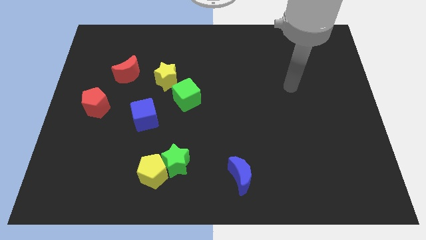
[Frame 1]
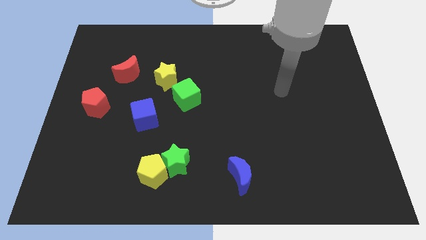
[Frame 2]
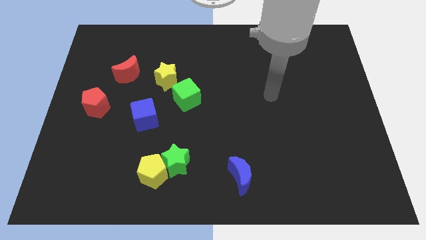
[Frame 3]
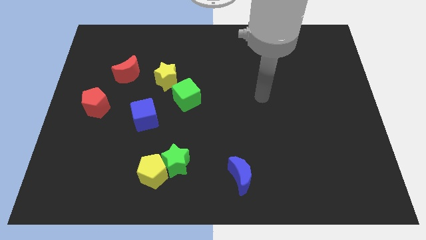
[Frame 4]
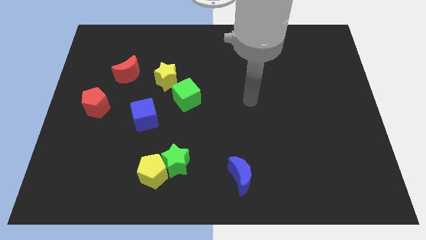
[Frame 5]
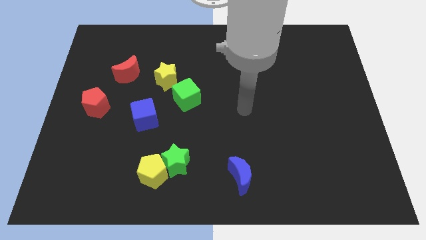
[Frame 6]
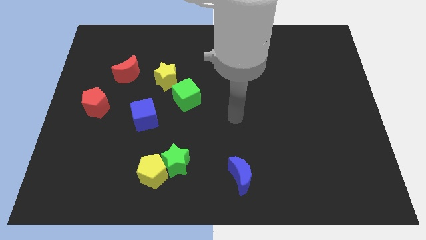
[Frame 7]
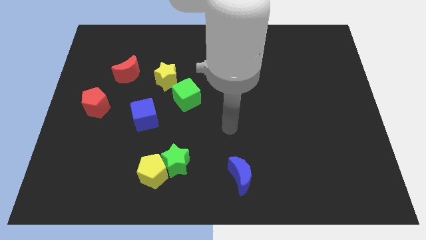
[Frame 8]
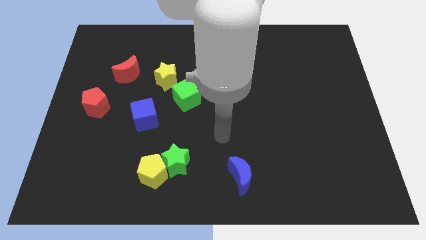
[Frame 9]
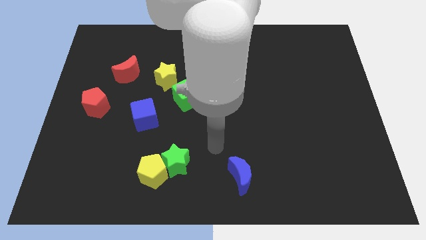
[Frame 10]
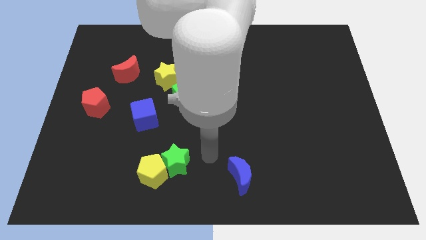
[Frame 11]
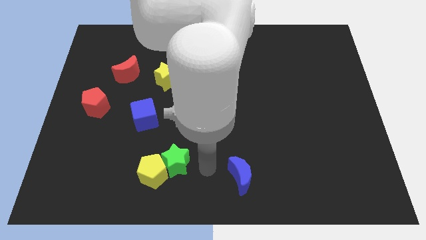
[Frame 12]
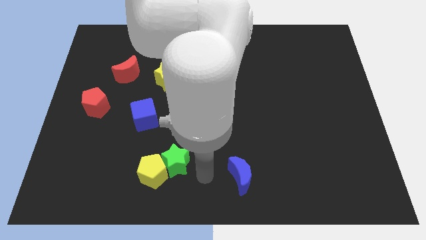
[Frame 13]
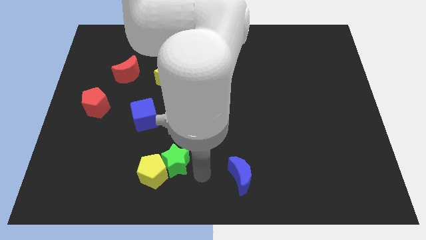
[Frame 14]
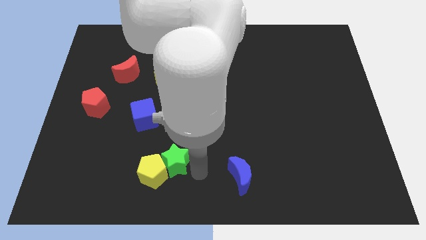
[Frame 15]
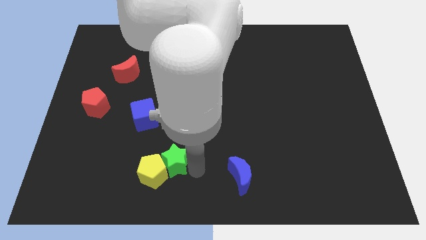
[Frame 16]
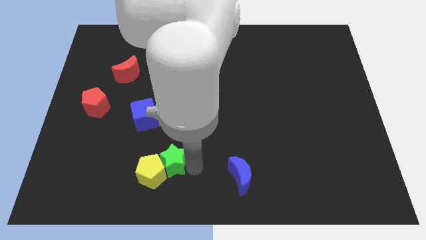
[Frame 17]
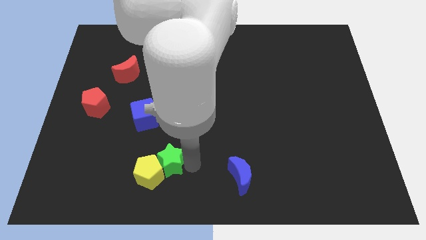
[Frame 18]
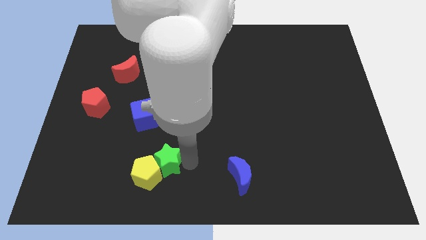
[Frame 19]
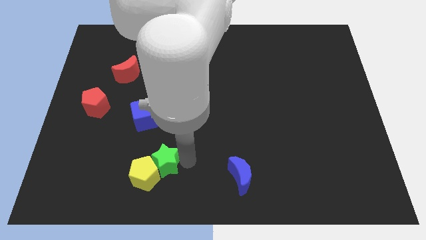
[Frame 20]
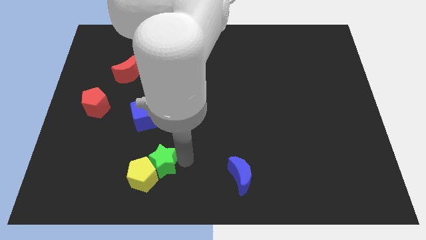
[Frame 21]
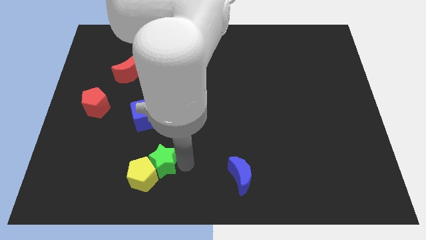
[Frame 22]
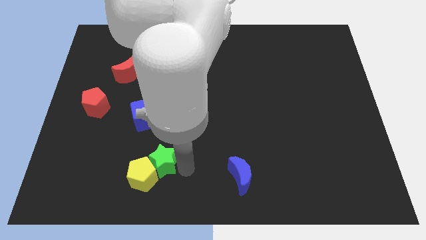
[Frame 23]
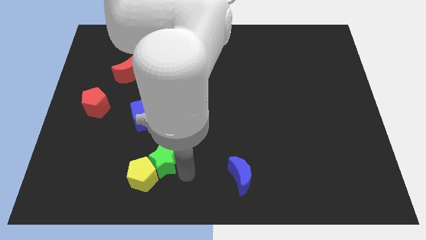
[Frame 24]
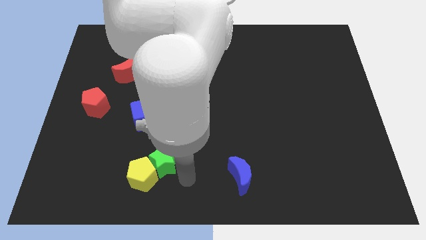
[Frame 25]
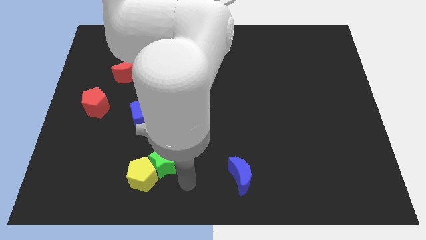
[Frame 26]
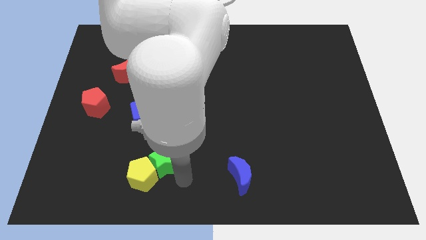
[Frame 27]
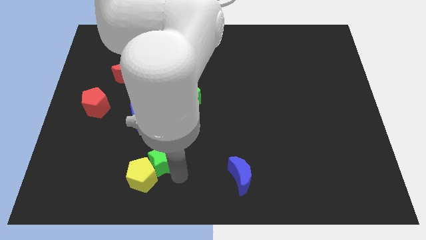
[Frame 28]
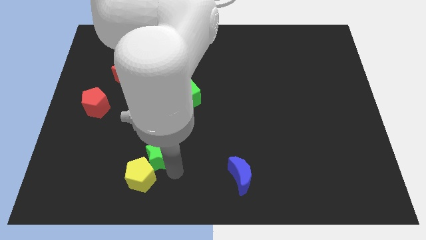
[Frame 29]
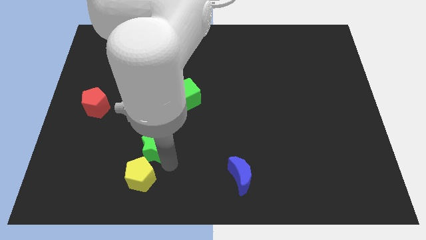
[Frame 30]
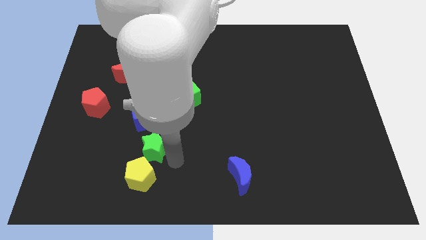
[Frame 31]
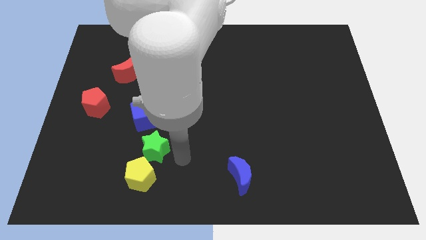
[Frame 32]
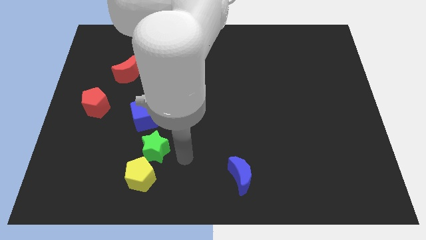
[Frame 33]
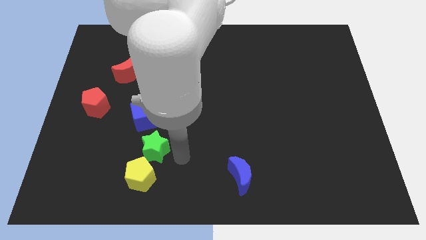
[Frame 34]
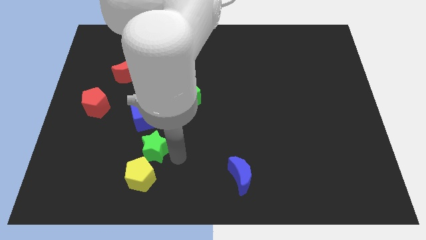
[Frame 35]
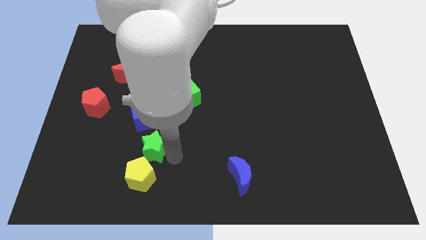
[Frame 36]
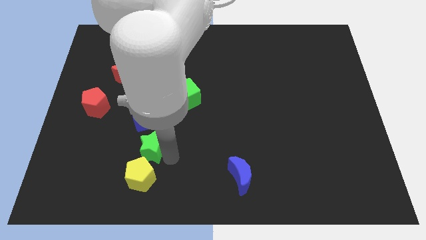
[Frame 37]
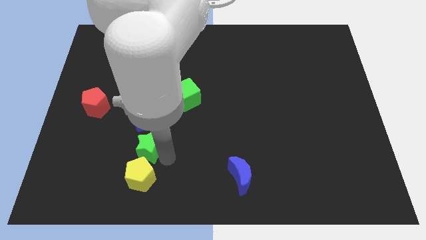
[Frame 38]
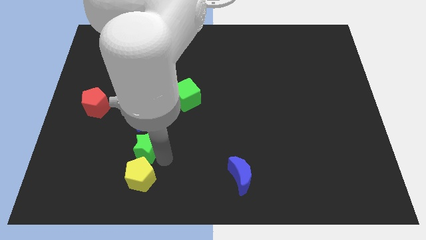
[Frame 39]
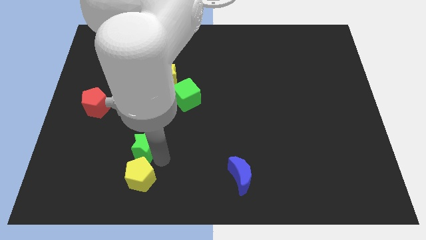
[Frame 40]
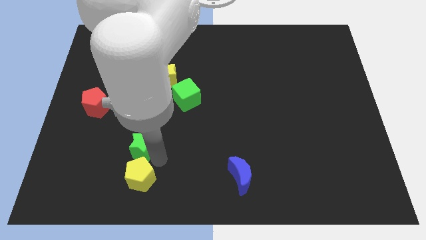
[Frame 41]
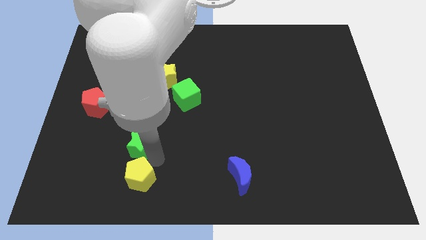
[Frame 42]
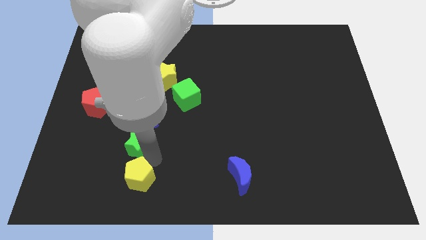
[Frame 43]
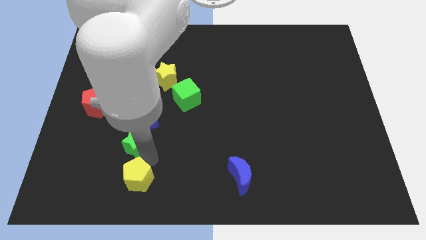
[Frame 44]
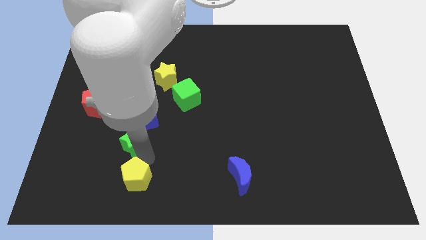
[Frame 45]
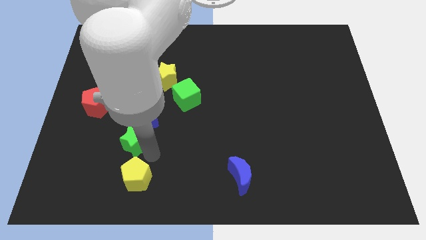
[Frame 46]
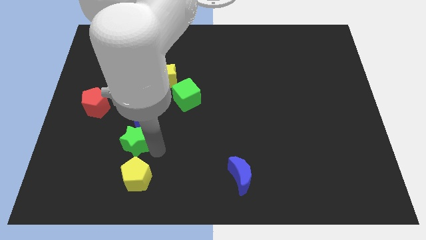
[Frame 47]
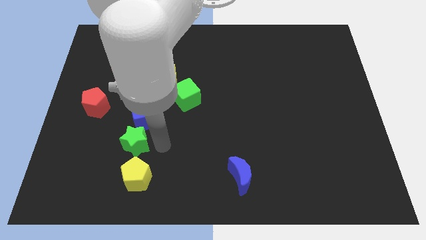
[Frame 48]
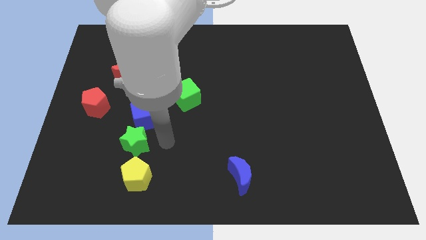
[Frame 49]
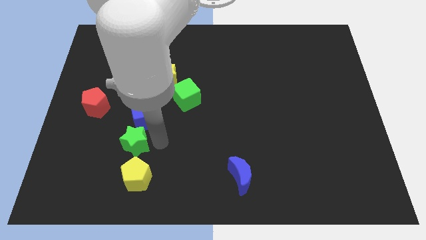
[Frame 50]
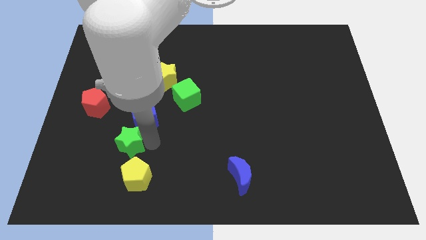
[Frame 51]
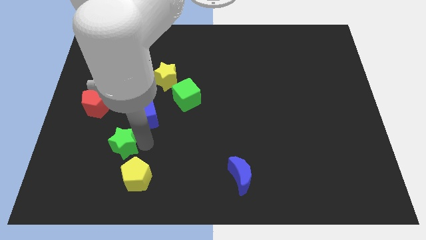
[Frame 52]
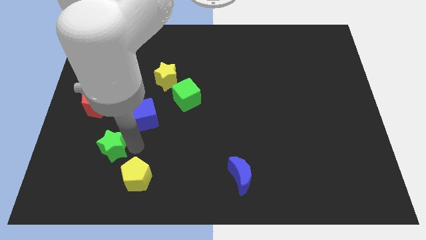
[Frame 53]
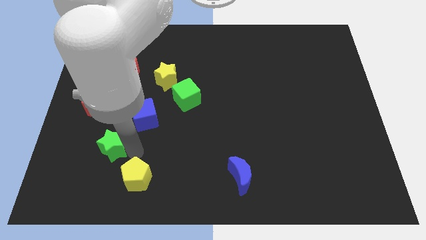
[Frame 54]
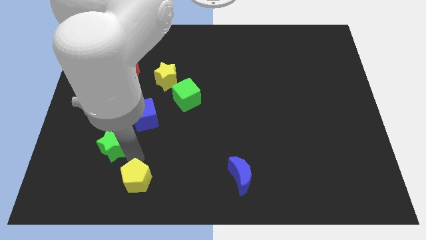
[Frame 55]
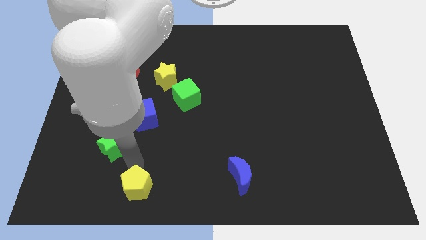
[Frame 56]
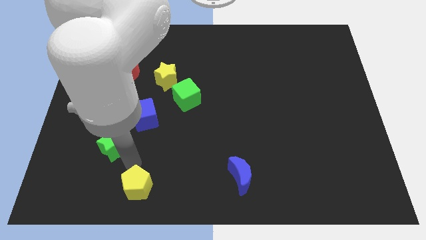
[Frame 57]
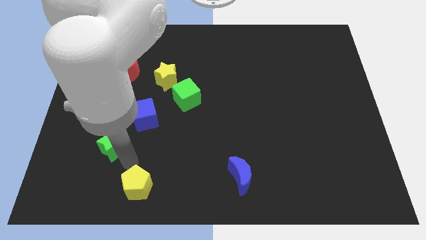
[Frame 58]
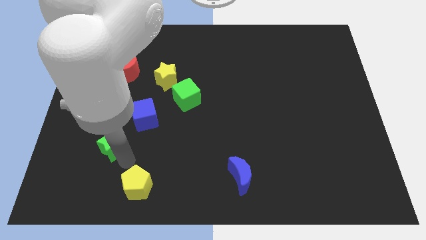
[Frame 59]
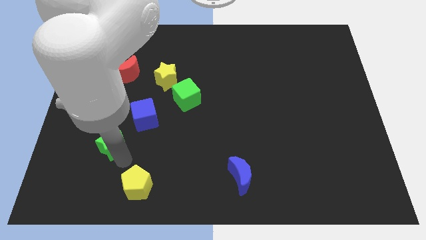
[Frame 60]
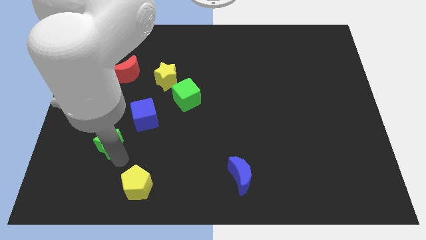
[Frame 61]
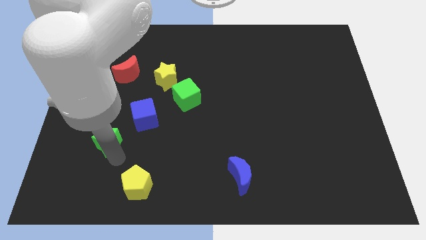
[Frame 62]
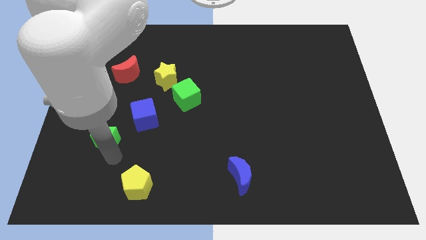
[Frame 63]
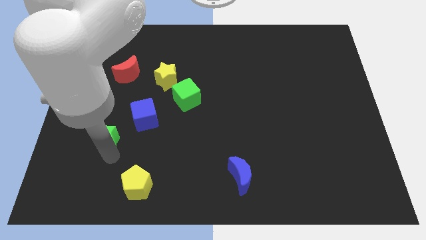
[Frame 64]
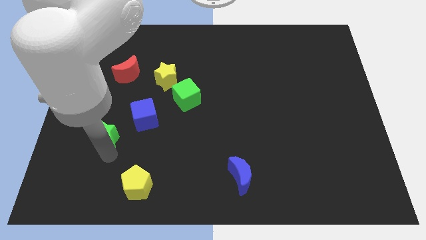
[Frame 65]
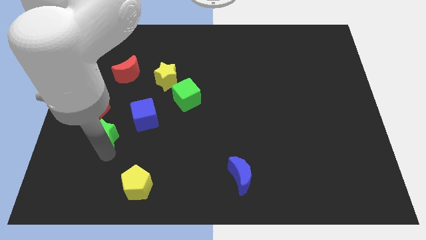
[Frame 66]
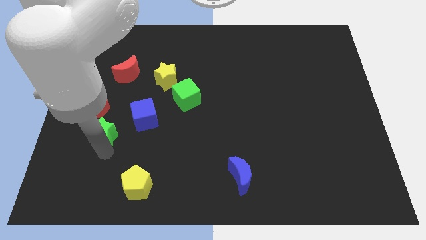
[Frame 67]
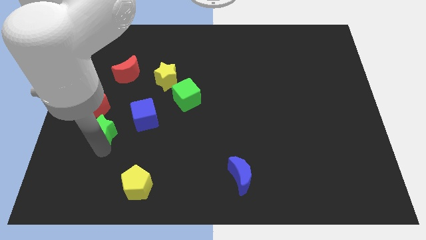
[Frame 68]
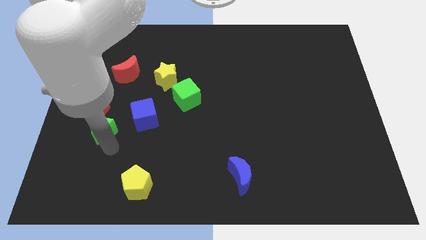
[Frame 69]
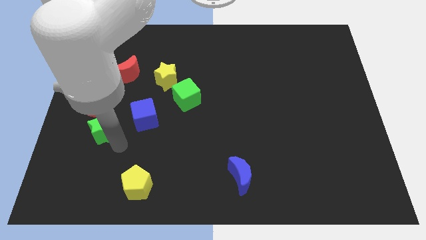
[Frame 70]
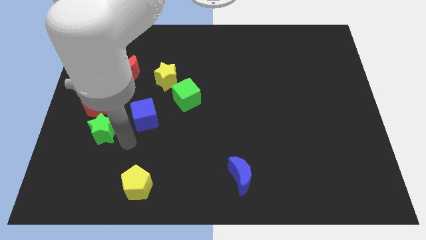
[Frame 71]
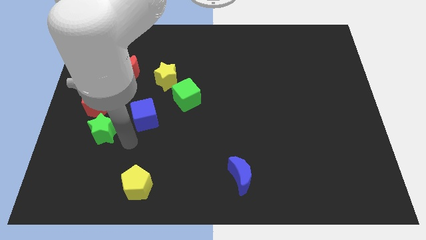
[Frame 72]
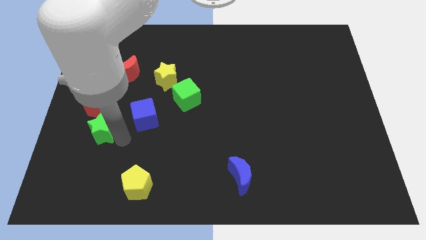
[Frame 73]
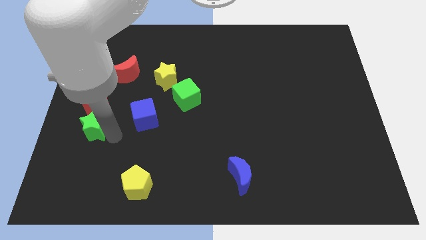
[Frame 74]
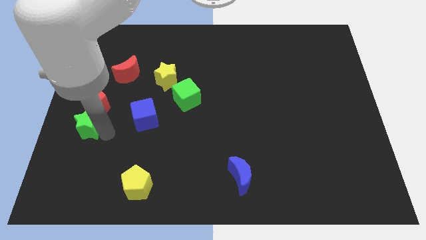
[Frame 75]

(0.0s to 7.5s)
slide the green star to the left side of the board
